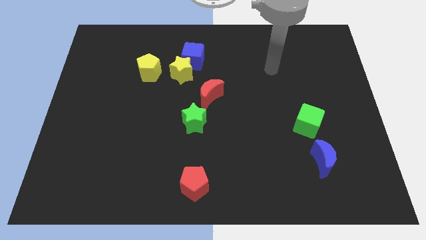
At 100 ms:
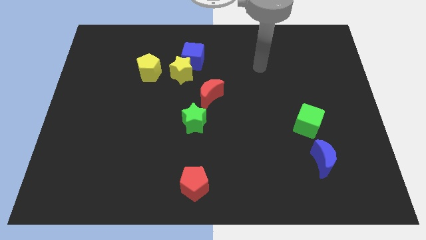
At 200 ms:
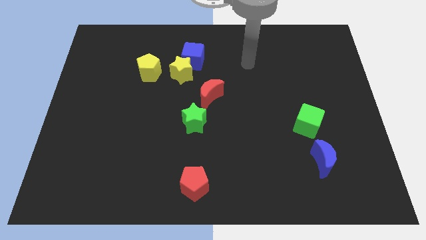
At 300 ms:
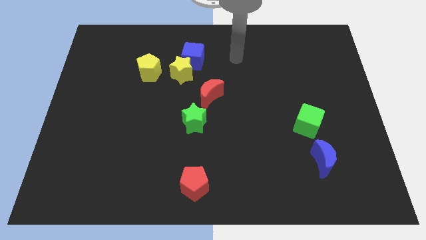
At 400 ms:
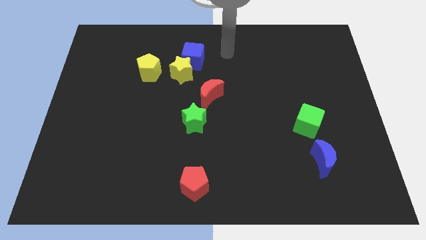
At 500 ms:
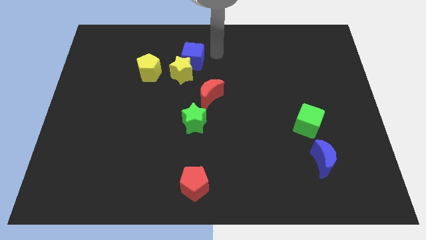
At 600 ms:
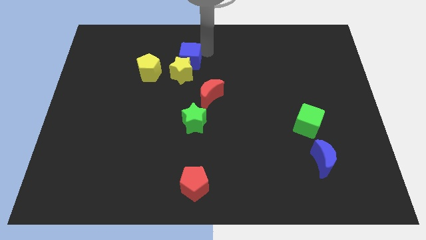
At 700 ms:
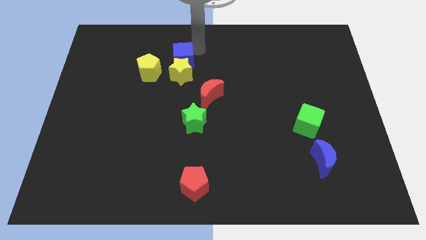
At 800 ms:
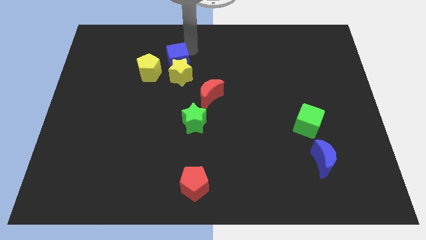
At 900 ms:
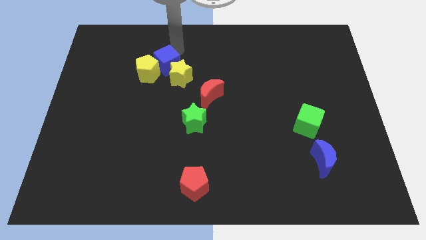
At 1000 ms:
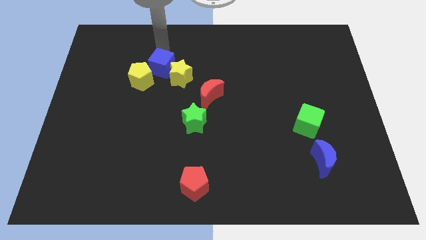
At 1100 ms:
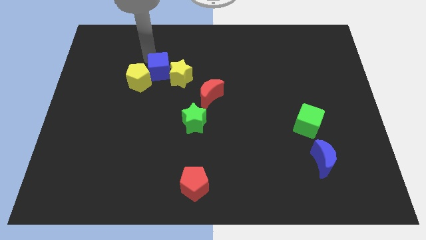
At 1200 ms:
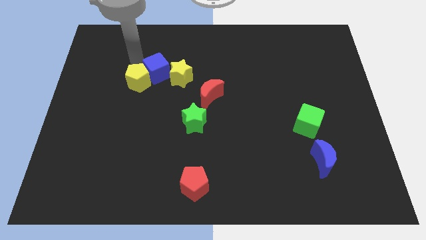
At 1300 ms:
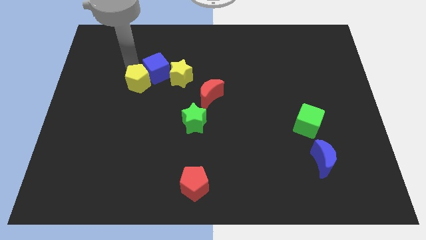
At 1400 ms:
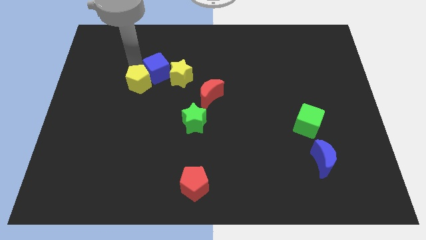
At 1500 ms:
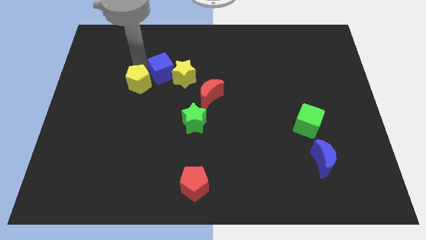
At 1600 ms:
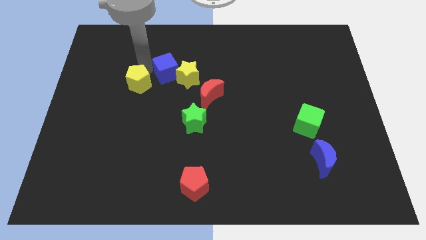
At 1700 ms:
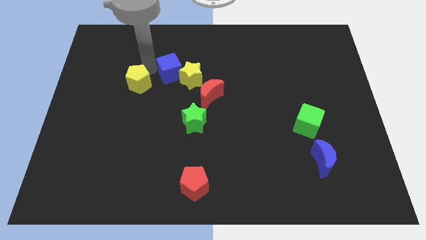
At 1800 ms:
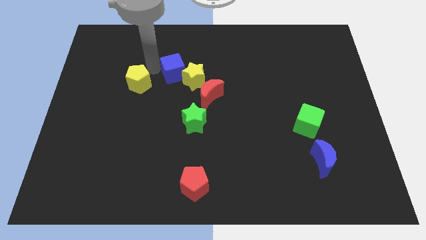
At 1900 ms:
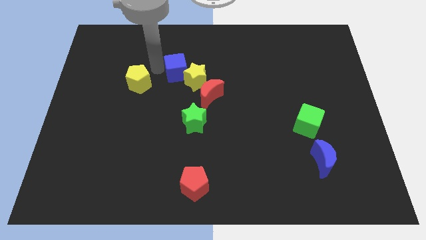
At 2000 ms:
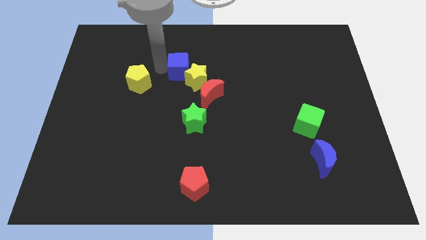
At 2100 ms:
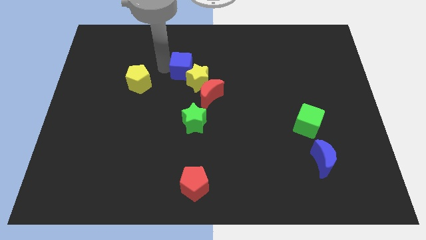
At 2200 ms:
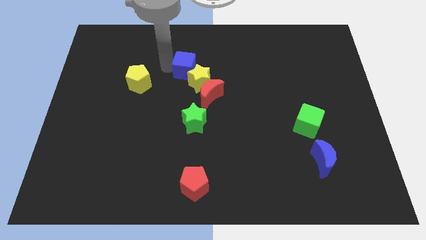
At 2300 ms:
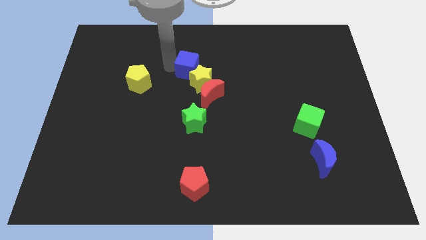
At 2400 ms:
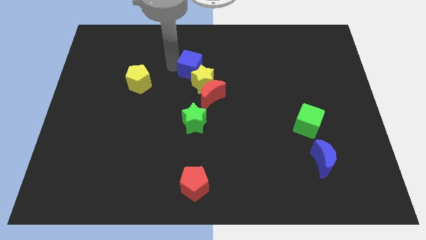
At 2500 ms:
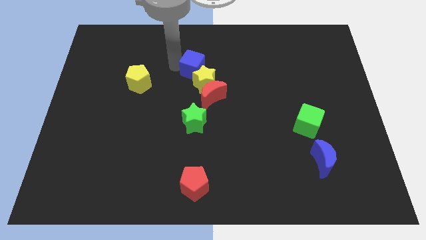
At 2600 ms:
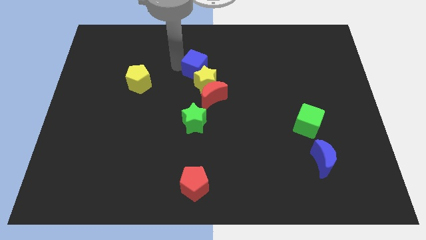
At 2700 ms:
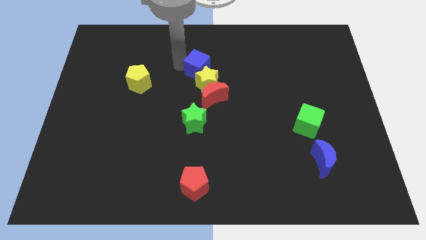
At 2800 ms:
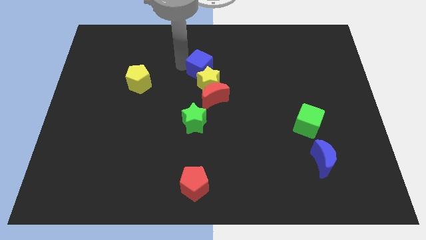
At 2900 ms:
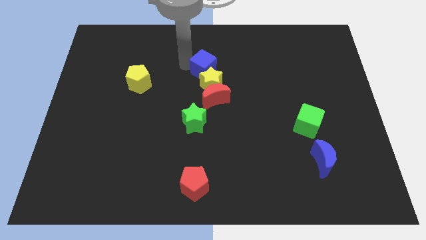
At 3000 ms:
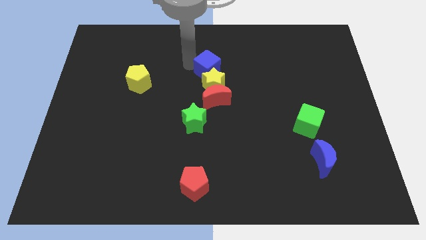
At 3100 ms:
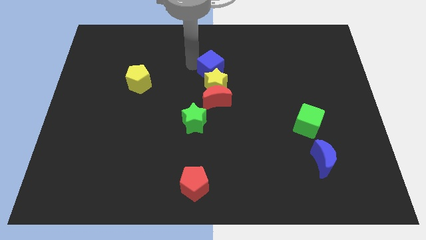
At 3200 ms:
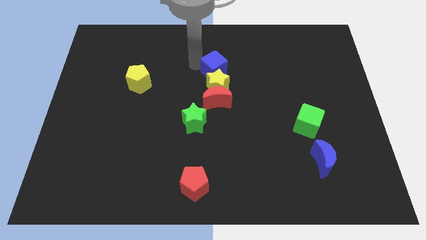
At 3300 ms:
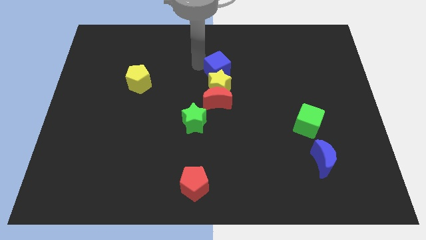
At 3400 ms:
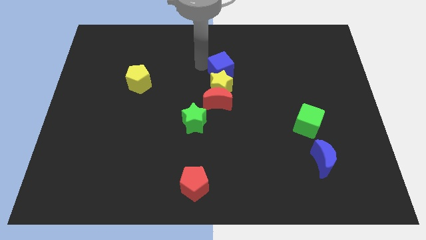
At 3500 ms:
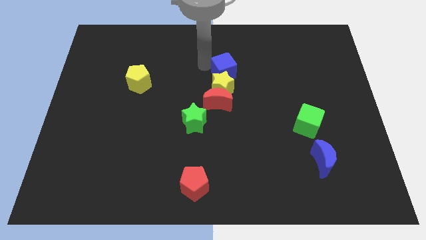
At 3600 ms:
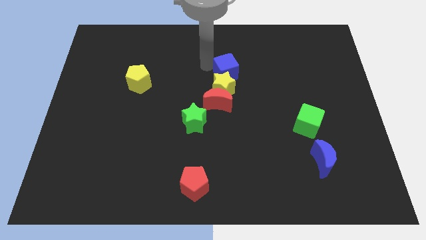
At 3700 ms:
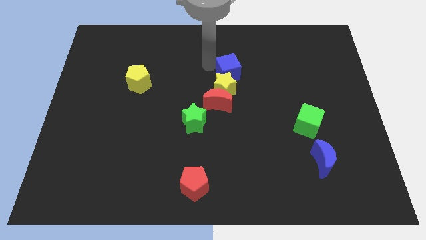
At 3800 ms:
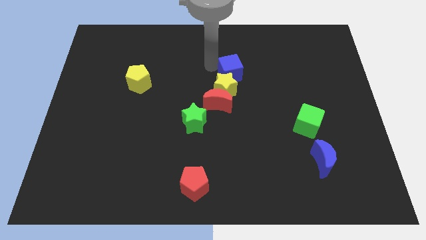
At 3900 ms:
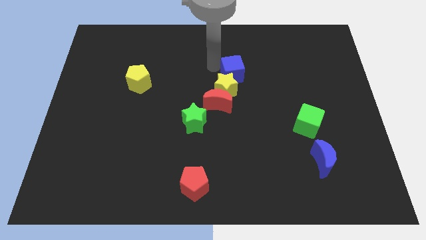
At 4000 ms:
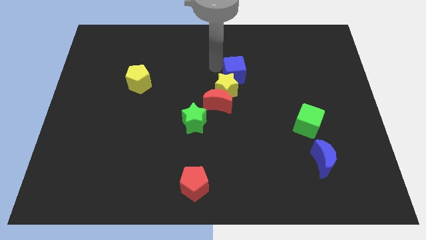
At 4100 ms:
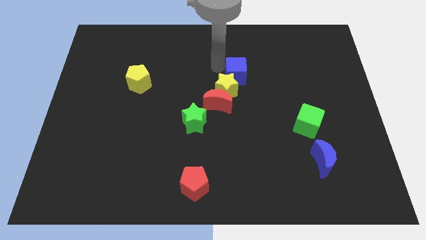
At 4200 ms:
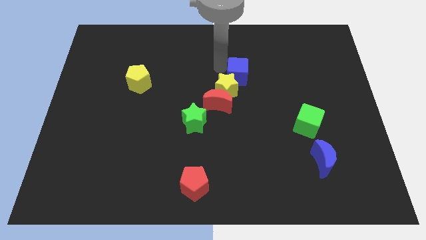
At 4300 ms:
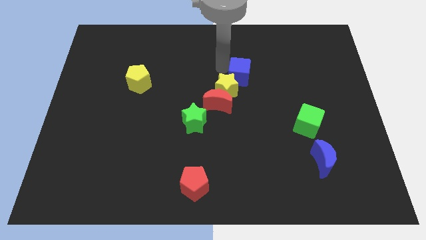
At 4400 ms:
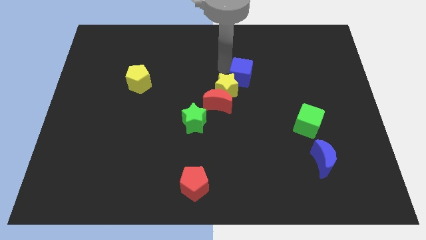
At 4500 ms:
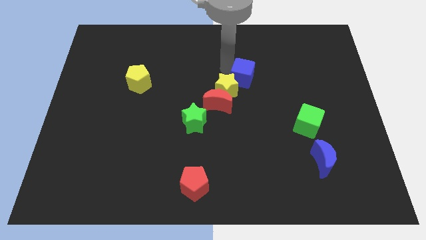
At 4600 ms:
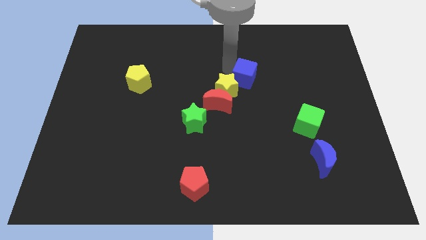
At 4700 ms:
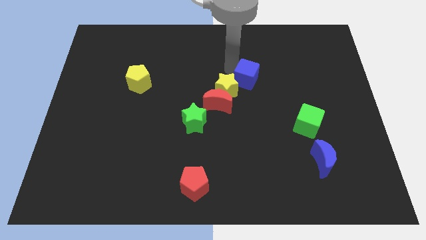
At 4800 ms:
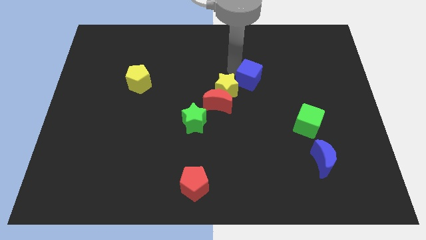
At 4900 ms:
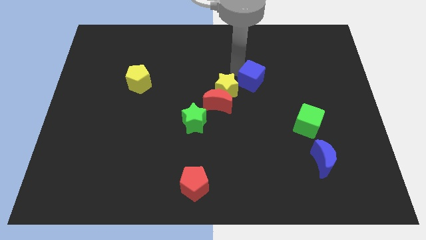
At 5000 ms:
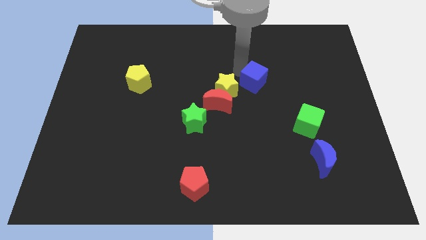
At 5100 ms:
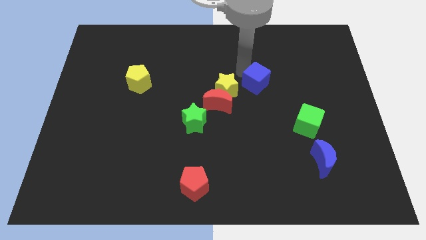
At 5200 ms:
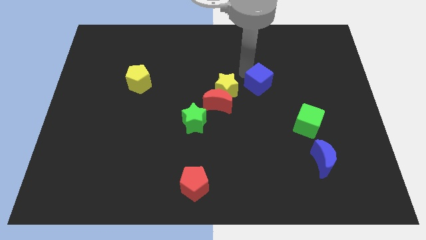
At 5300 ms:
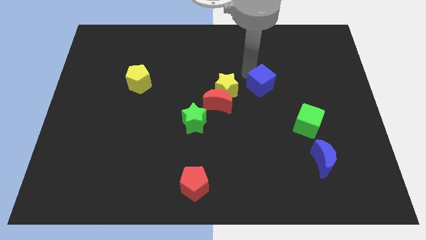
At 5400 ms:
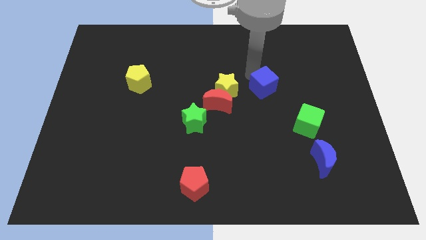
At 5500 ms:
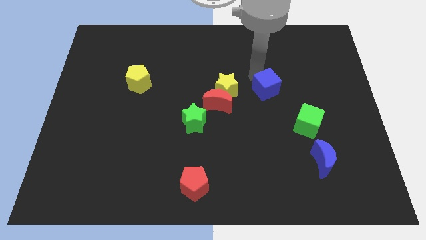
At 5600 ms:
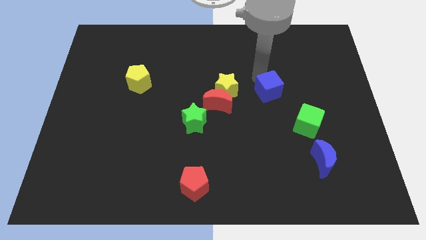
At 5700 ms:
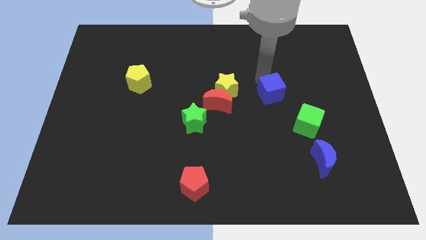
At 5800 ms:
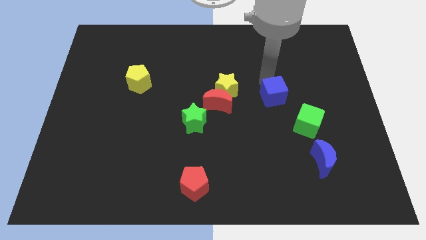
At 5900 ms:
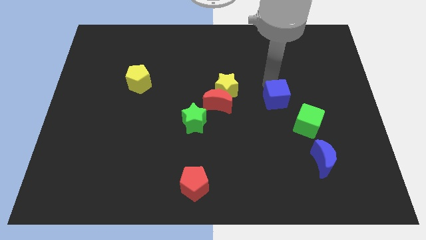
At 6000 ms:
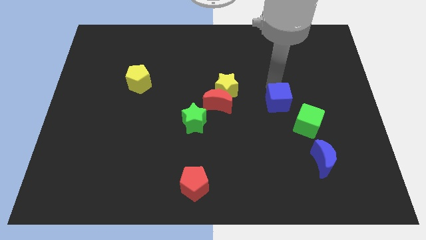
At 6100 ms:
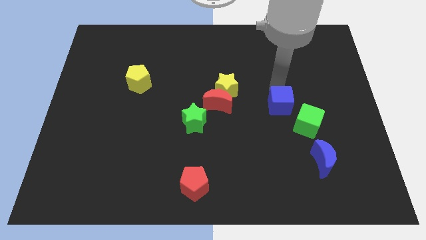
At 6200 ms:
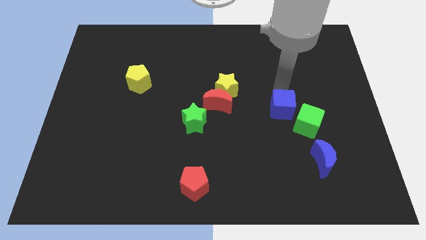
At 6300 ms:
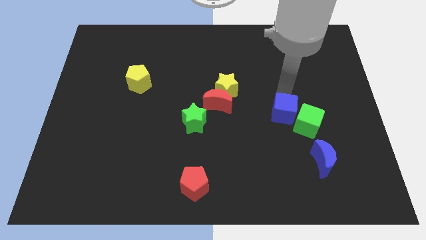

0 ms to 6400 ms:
push the blue cube next to the green cube
